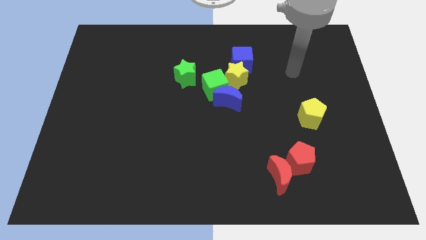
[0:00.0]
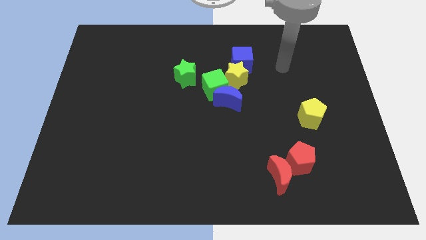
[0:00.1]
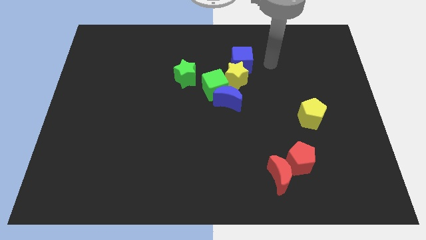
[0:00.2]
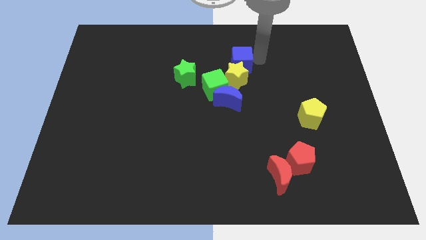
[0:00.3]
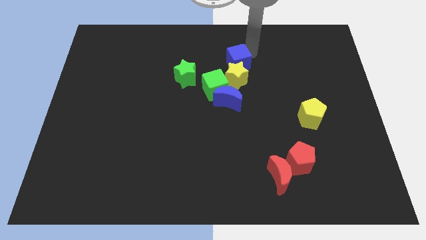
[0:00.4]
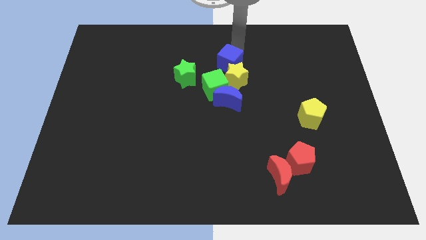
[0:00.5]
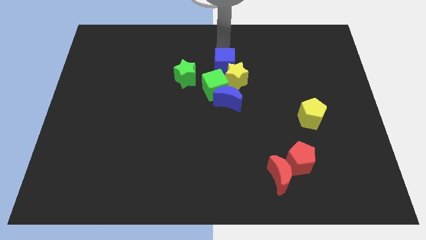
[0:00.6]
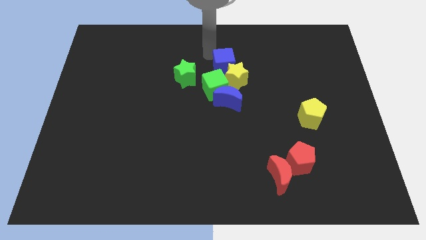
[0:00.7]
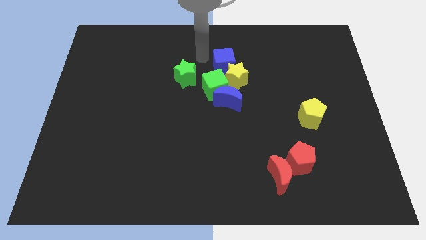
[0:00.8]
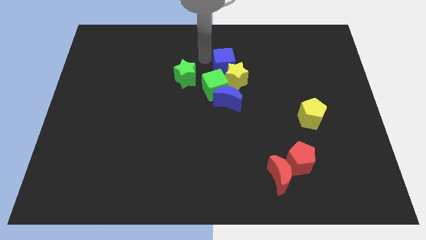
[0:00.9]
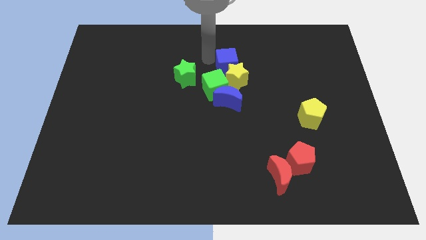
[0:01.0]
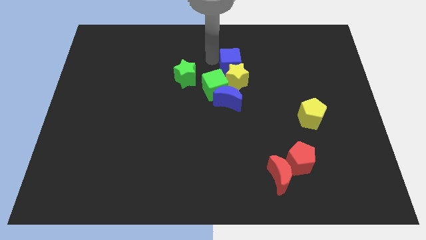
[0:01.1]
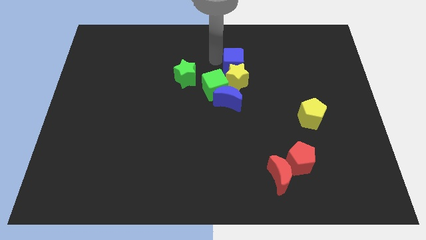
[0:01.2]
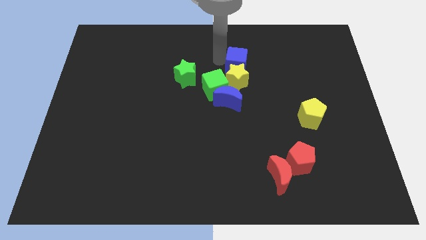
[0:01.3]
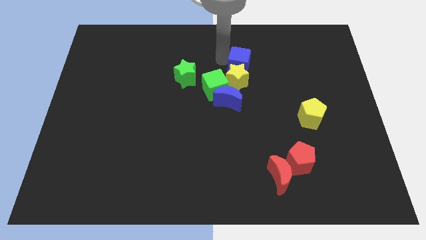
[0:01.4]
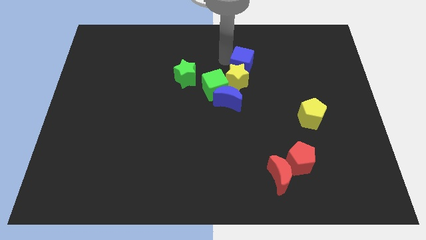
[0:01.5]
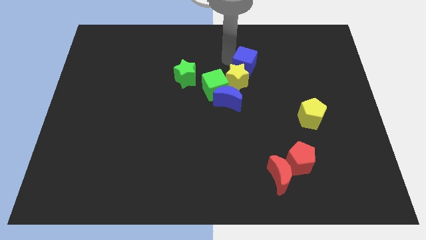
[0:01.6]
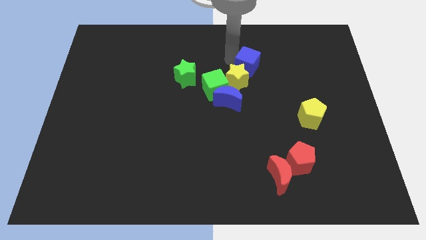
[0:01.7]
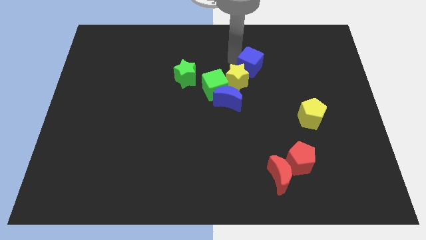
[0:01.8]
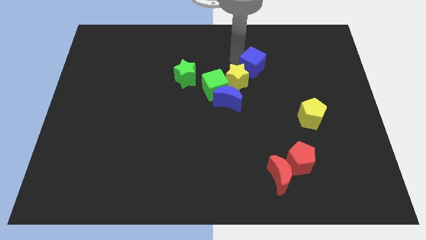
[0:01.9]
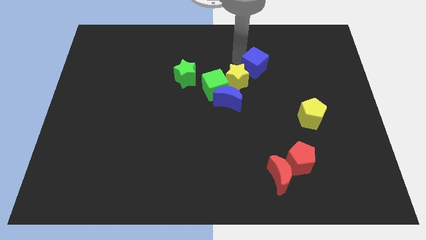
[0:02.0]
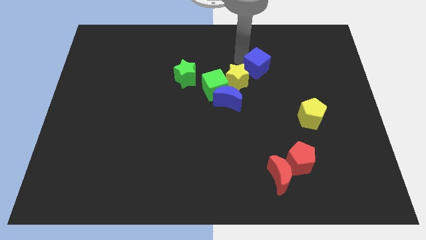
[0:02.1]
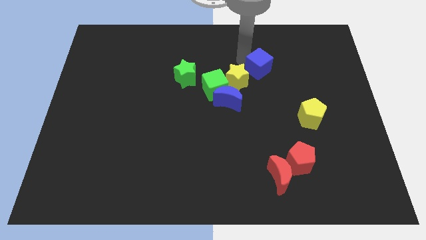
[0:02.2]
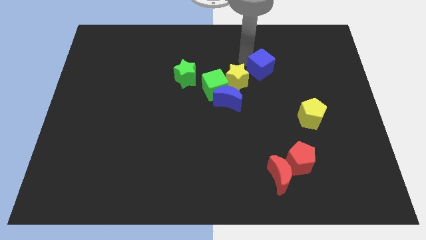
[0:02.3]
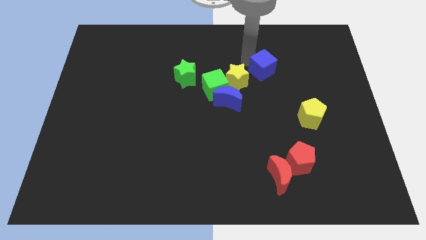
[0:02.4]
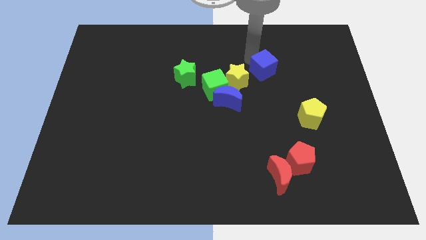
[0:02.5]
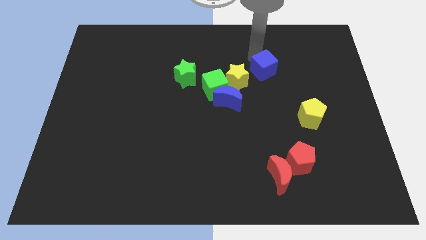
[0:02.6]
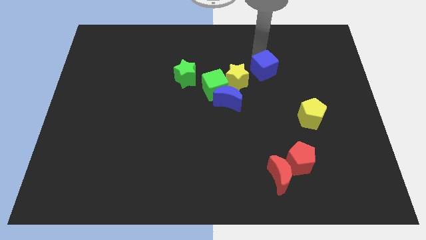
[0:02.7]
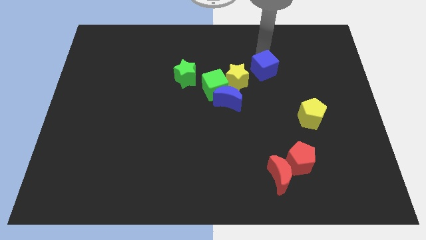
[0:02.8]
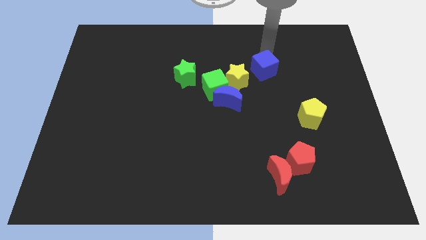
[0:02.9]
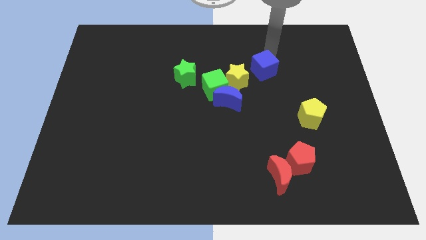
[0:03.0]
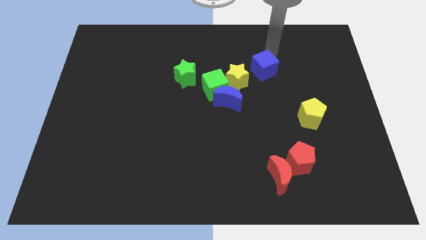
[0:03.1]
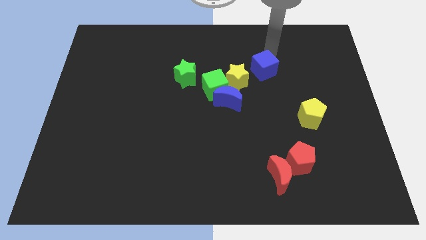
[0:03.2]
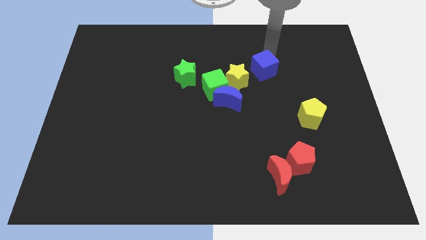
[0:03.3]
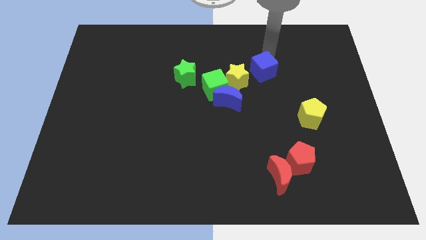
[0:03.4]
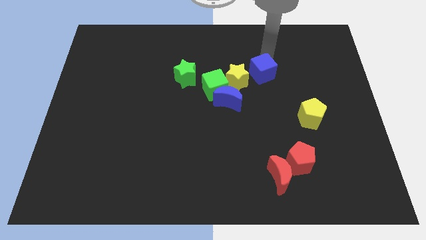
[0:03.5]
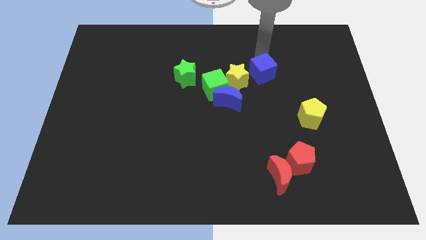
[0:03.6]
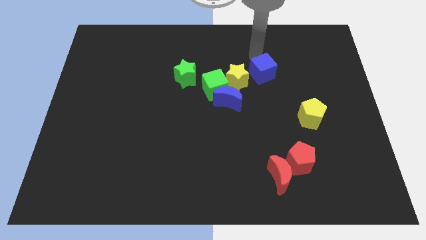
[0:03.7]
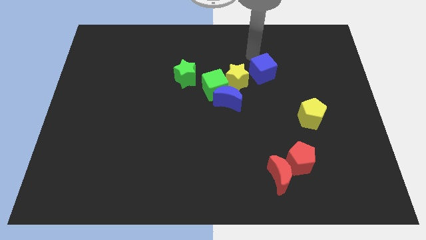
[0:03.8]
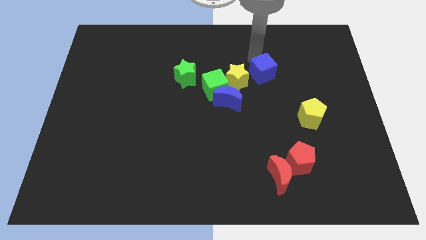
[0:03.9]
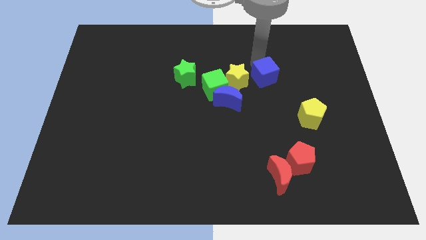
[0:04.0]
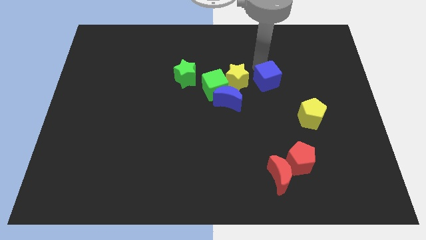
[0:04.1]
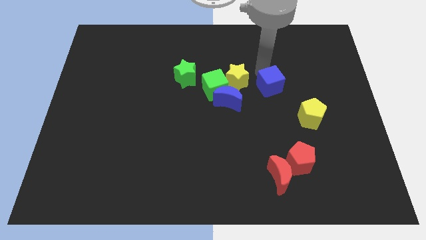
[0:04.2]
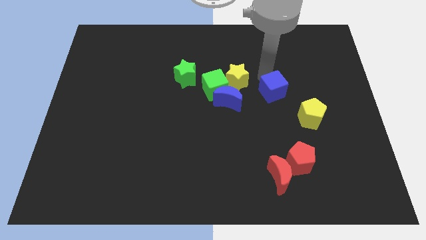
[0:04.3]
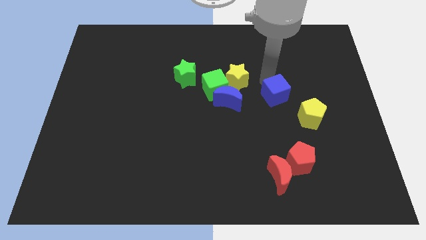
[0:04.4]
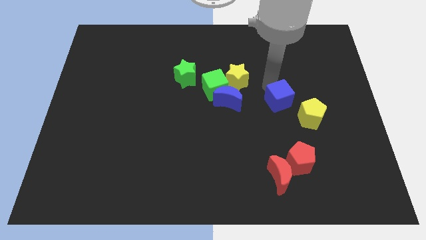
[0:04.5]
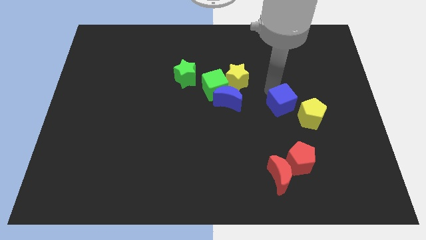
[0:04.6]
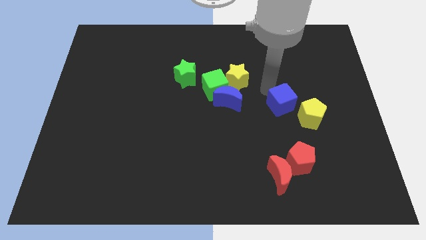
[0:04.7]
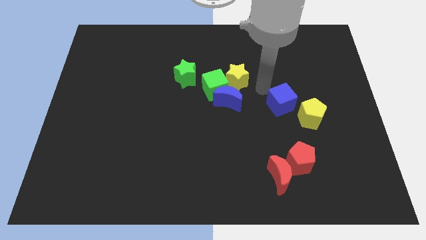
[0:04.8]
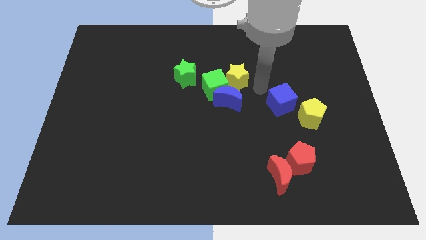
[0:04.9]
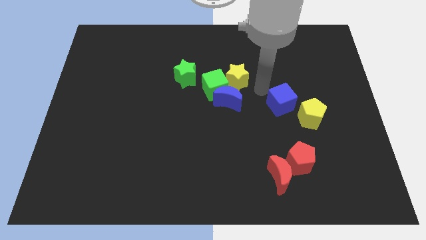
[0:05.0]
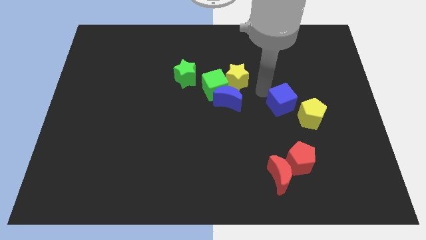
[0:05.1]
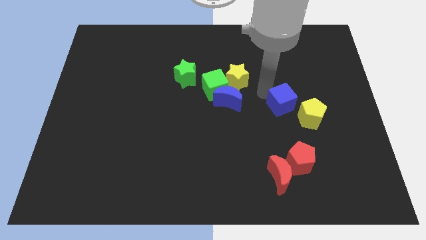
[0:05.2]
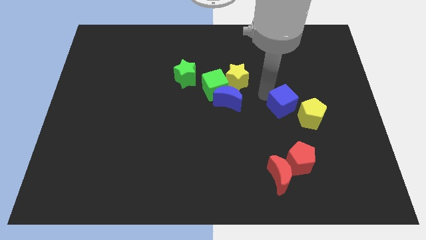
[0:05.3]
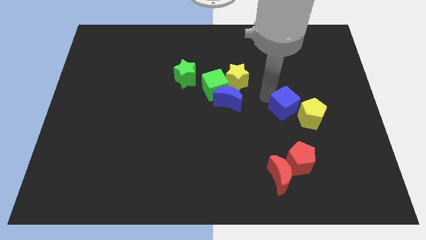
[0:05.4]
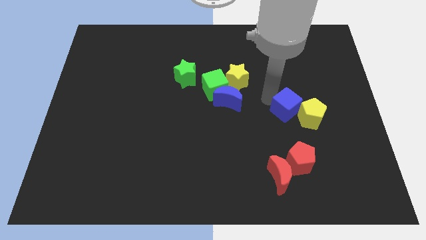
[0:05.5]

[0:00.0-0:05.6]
slide the blue cube next to the yellow pentagon

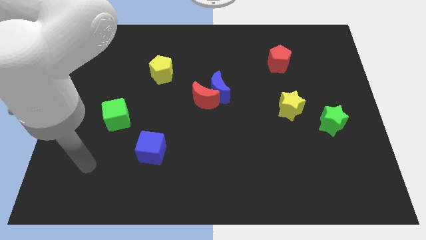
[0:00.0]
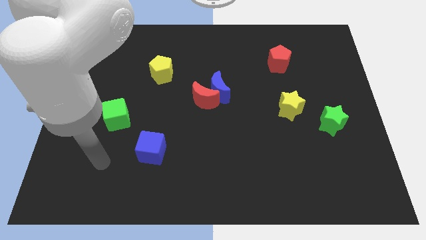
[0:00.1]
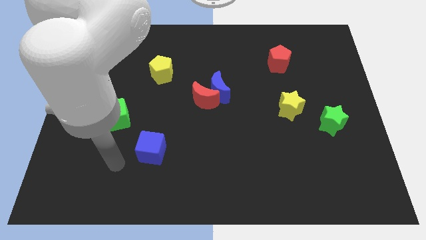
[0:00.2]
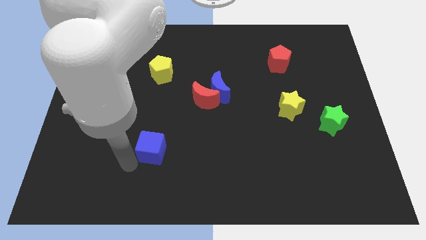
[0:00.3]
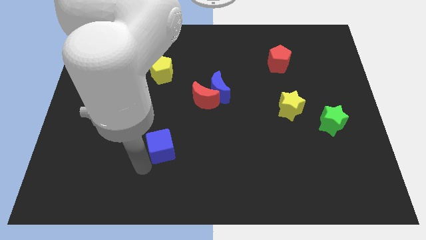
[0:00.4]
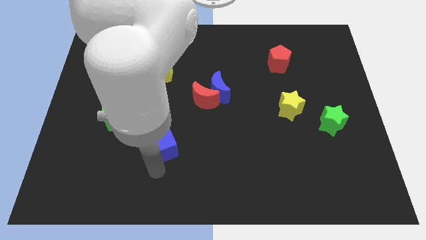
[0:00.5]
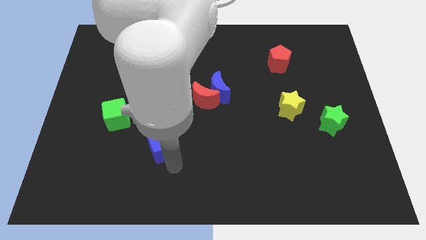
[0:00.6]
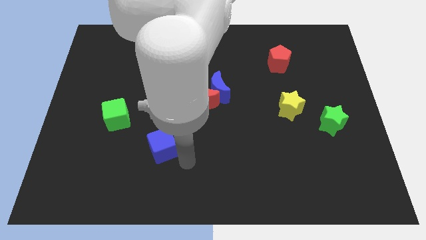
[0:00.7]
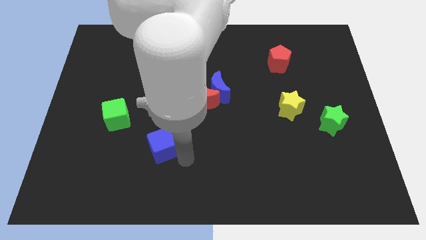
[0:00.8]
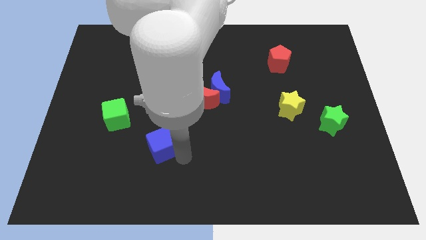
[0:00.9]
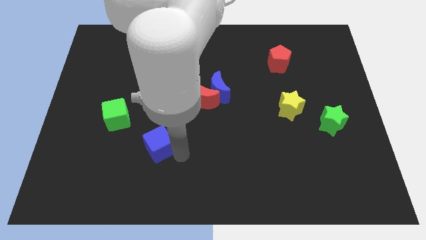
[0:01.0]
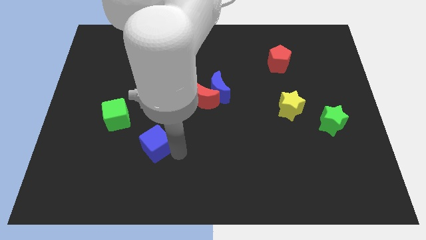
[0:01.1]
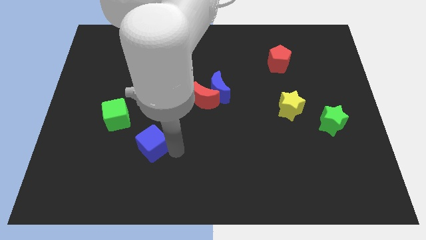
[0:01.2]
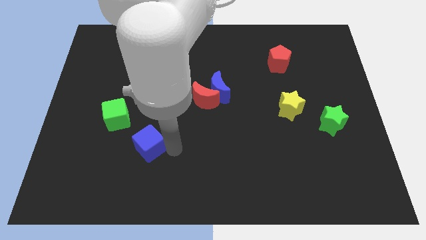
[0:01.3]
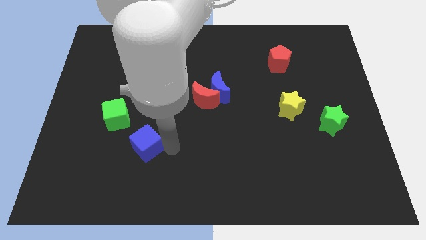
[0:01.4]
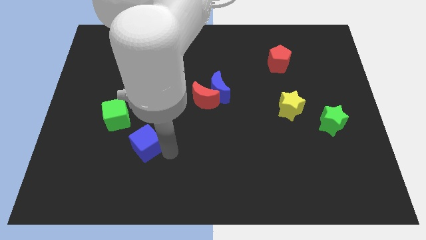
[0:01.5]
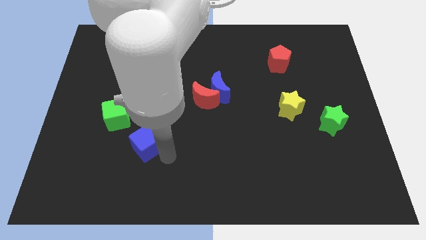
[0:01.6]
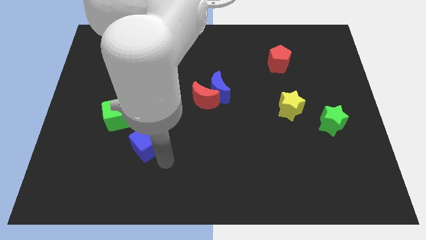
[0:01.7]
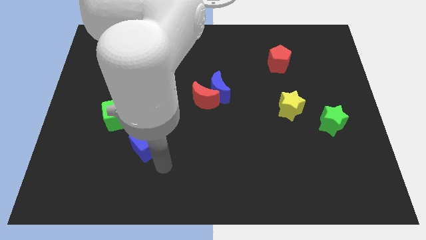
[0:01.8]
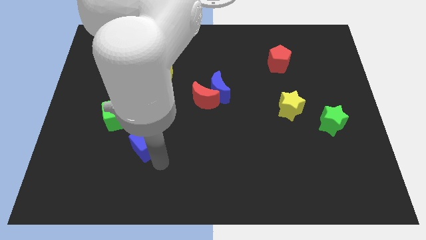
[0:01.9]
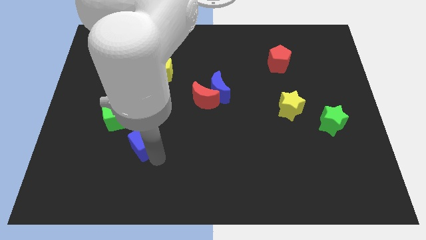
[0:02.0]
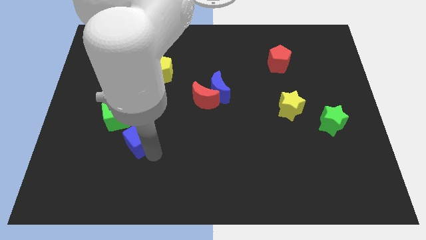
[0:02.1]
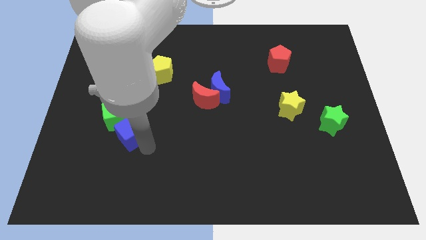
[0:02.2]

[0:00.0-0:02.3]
put the blue cube to the green cube
